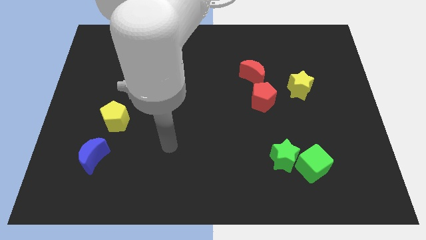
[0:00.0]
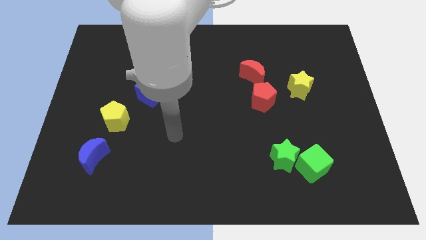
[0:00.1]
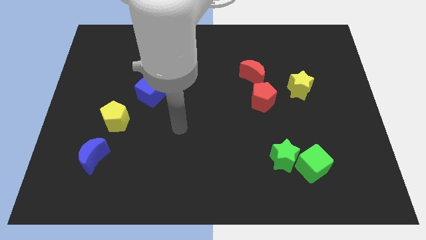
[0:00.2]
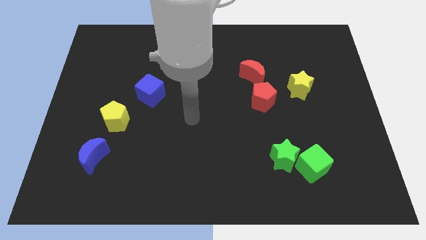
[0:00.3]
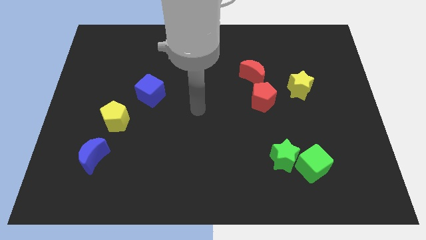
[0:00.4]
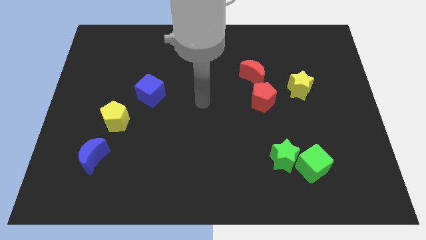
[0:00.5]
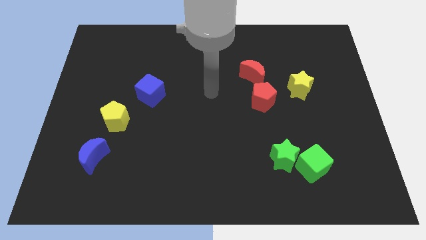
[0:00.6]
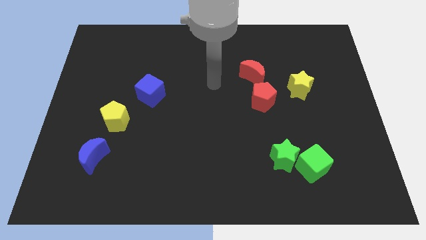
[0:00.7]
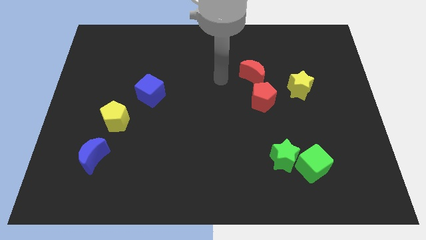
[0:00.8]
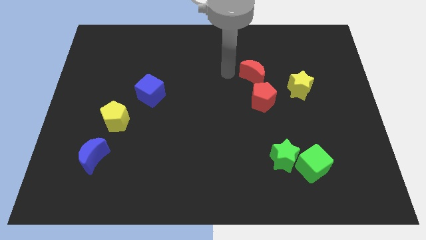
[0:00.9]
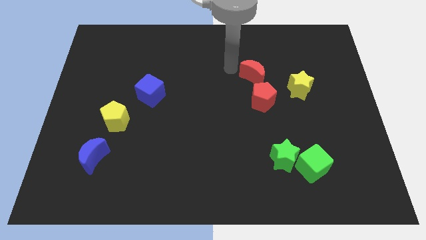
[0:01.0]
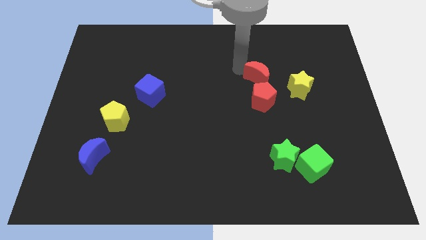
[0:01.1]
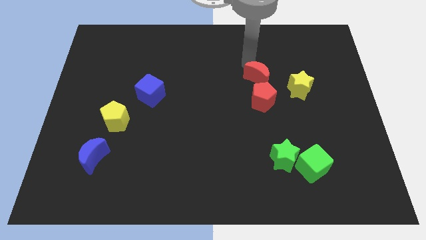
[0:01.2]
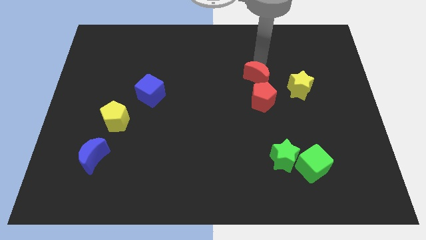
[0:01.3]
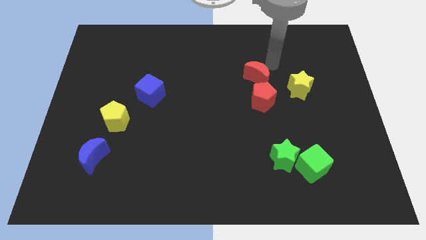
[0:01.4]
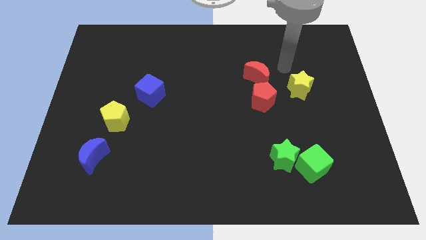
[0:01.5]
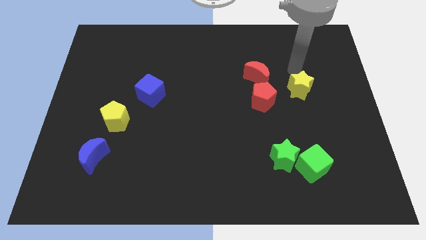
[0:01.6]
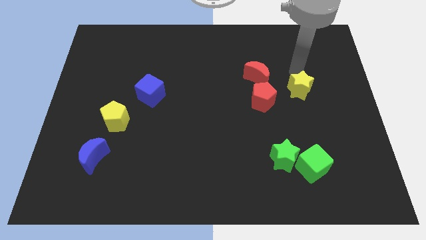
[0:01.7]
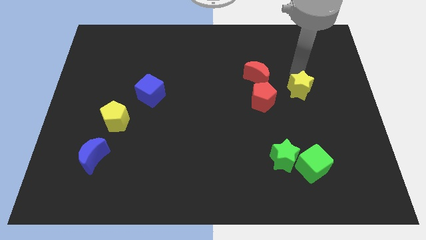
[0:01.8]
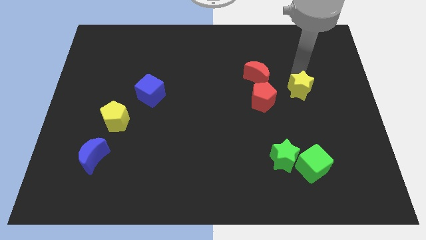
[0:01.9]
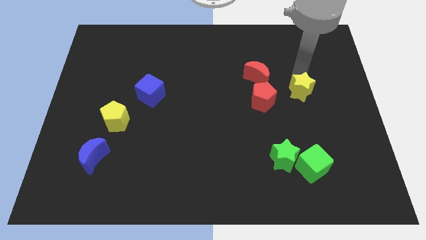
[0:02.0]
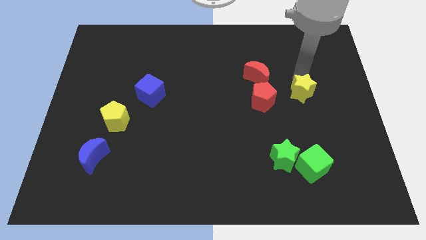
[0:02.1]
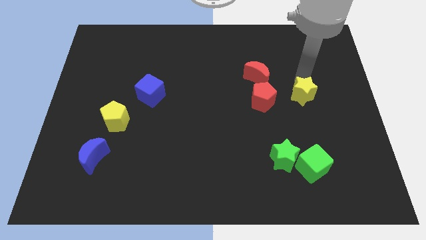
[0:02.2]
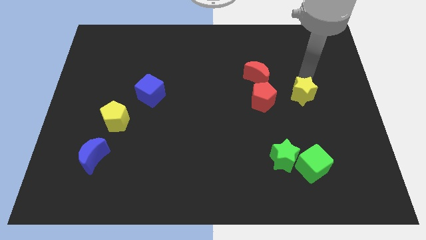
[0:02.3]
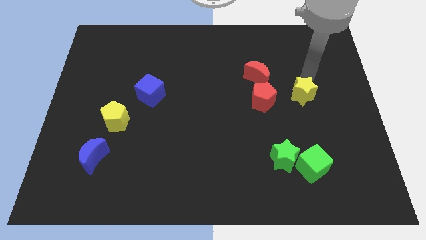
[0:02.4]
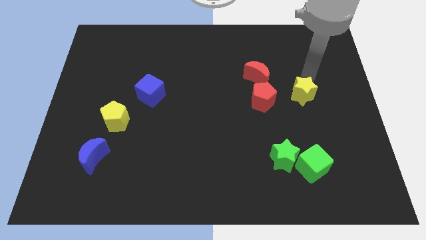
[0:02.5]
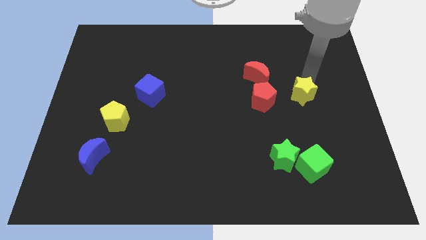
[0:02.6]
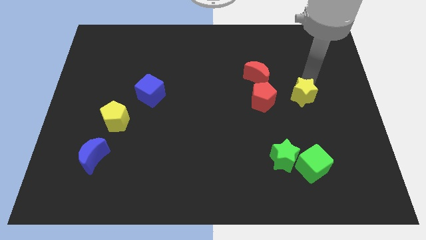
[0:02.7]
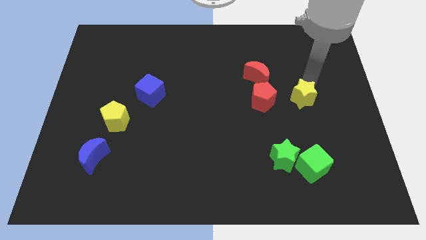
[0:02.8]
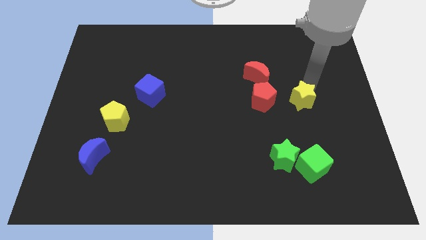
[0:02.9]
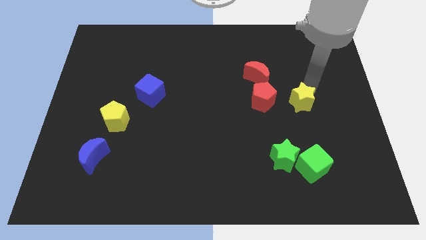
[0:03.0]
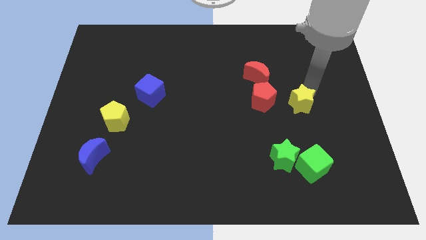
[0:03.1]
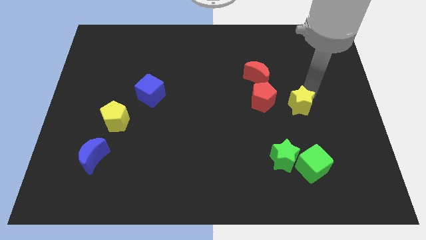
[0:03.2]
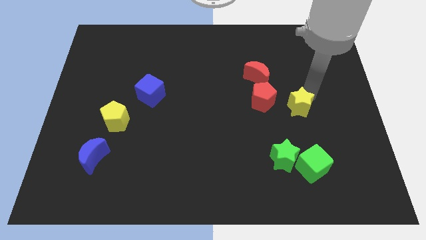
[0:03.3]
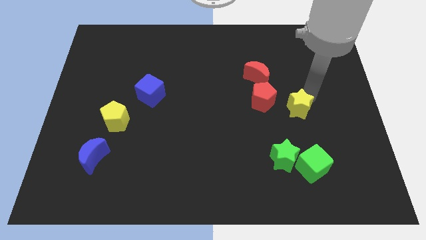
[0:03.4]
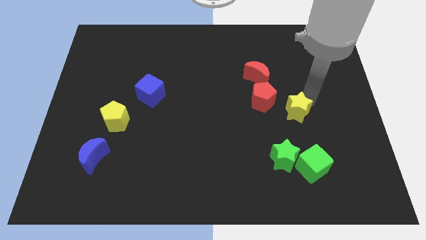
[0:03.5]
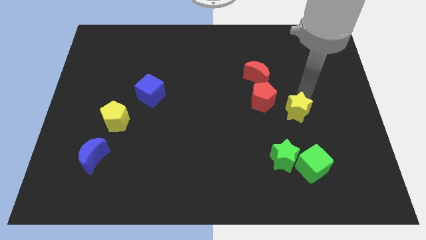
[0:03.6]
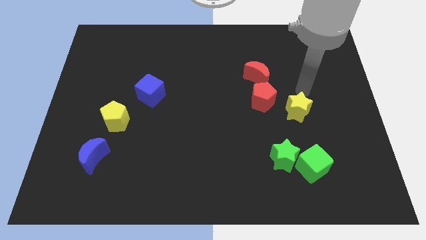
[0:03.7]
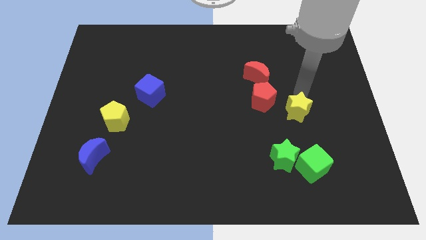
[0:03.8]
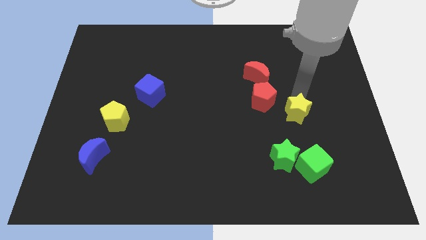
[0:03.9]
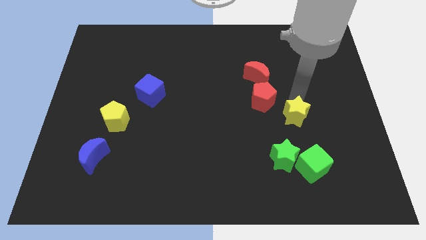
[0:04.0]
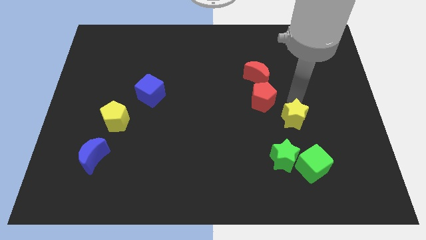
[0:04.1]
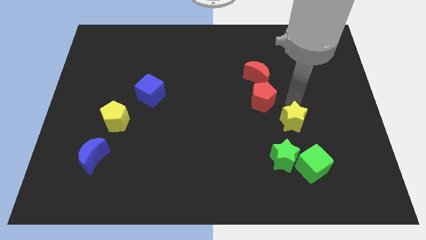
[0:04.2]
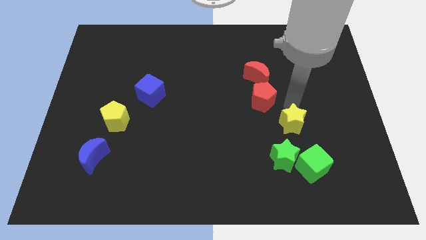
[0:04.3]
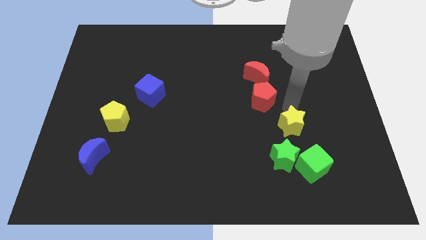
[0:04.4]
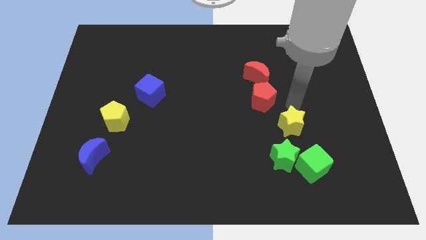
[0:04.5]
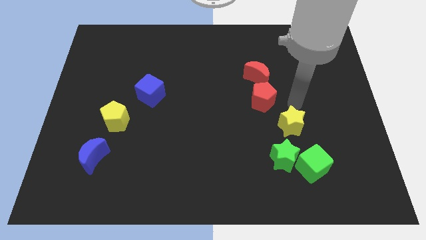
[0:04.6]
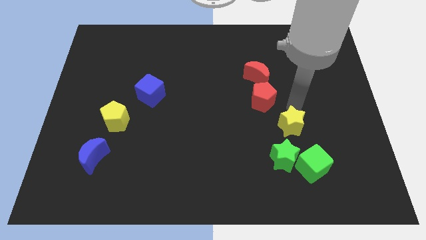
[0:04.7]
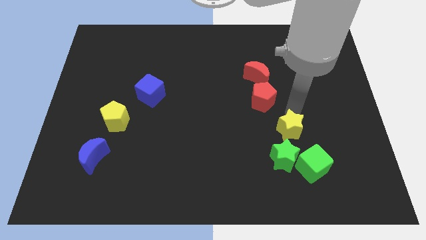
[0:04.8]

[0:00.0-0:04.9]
put the yellow star to the top left side of the green cube

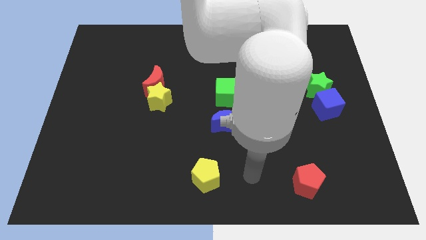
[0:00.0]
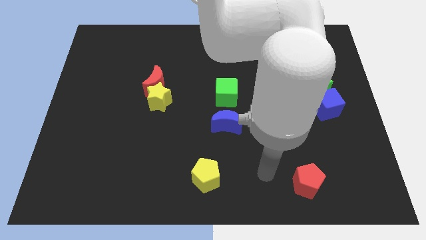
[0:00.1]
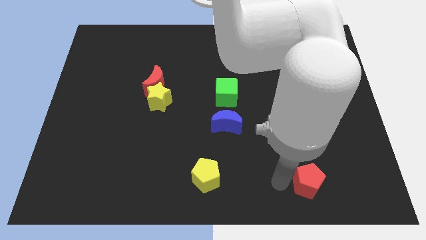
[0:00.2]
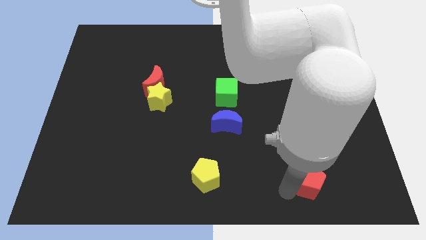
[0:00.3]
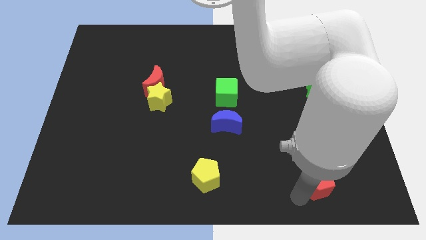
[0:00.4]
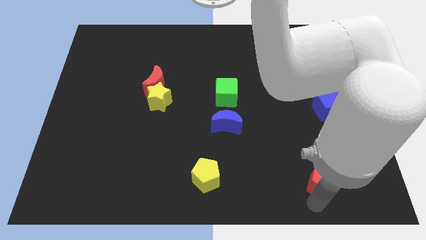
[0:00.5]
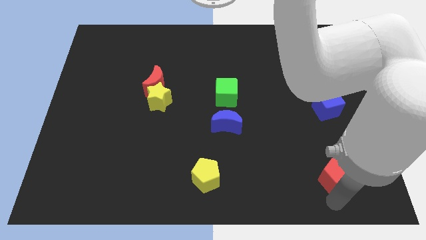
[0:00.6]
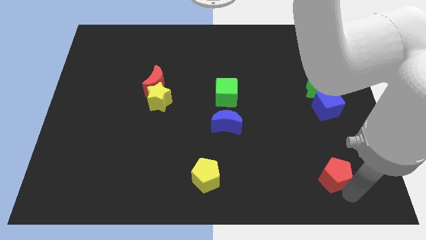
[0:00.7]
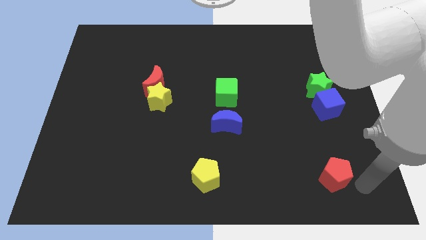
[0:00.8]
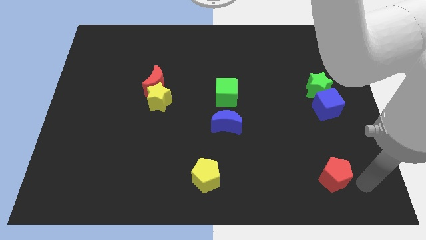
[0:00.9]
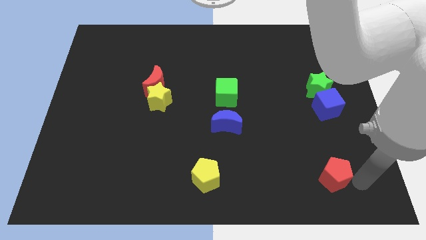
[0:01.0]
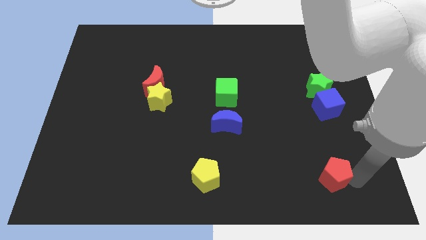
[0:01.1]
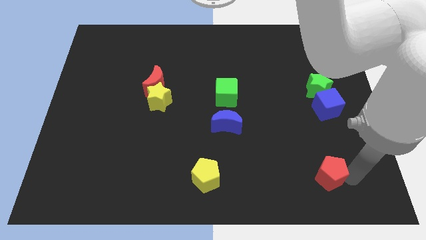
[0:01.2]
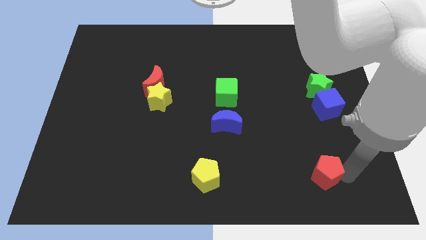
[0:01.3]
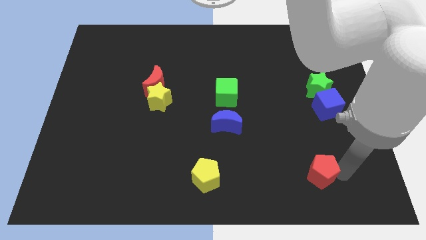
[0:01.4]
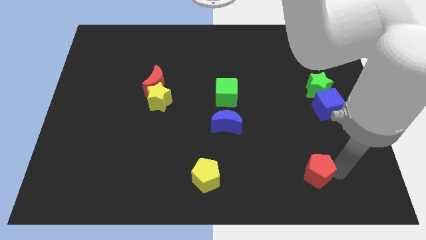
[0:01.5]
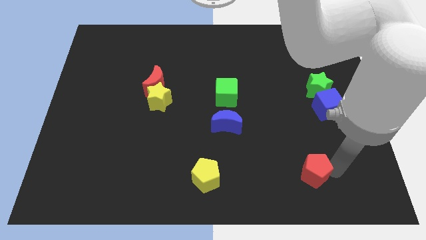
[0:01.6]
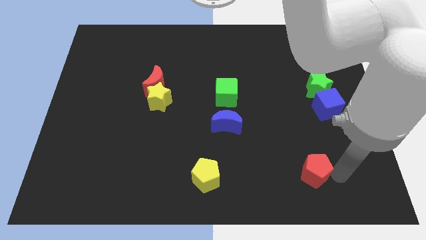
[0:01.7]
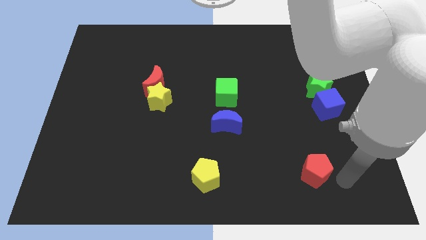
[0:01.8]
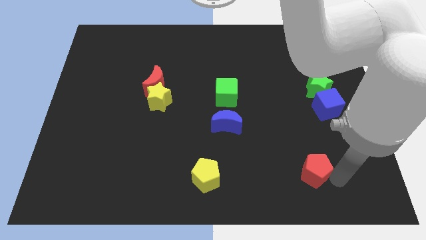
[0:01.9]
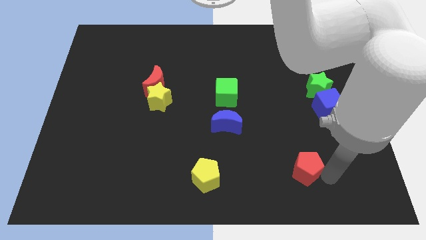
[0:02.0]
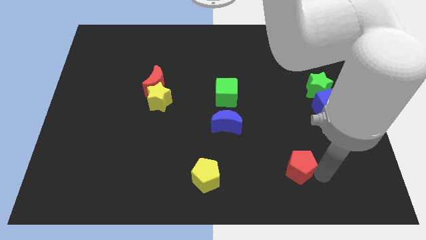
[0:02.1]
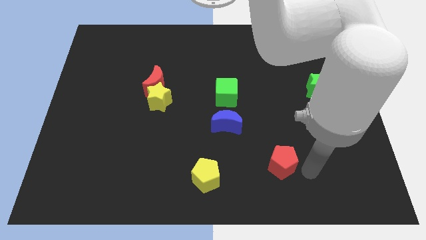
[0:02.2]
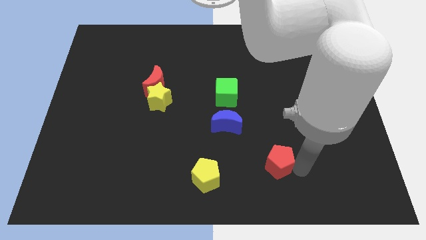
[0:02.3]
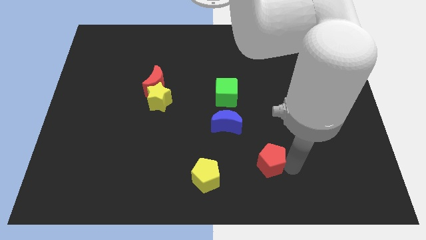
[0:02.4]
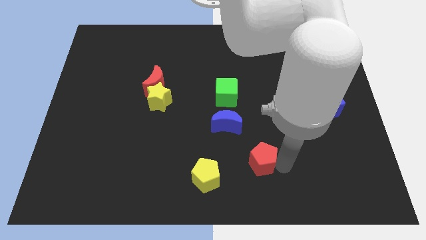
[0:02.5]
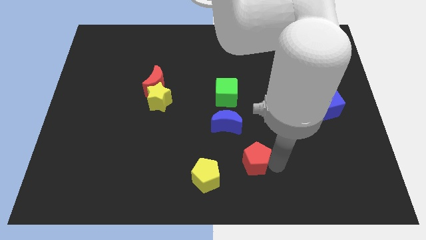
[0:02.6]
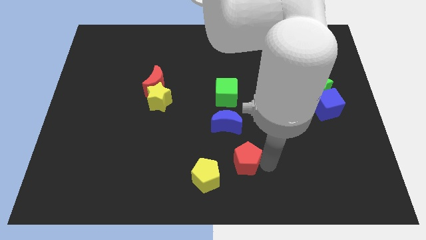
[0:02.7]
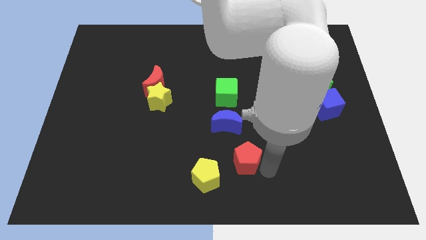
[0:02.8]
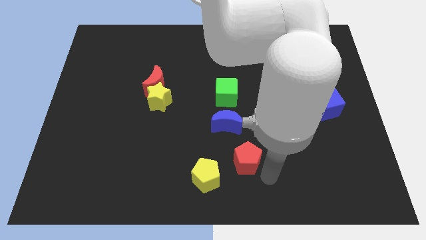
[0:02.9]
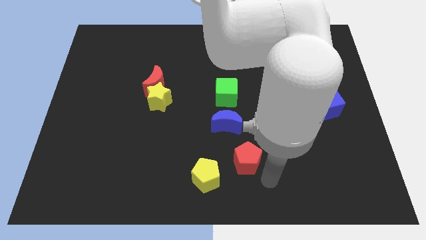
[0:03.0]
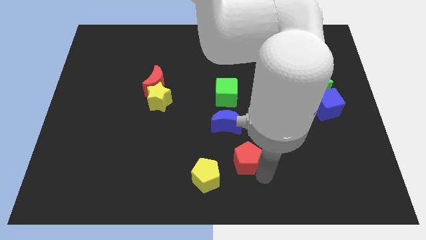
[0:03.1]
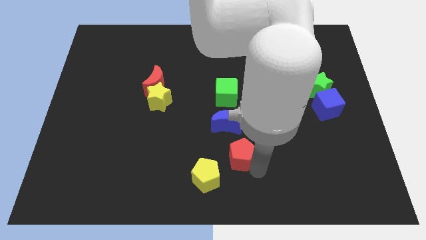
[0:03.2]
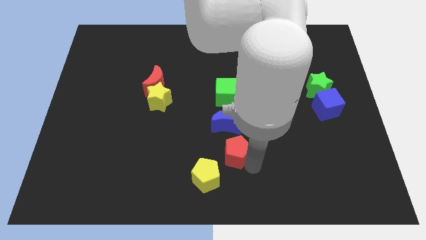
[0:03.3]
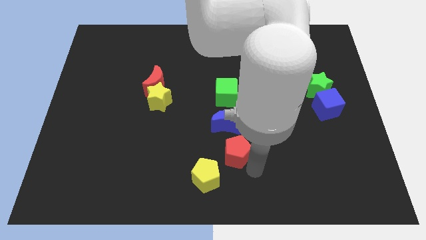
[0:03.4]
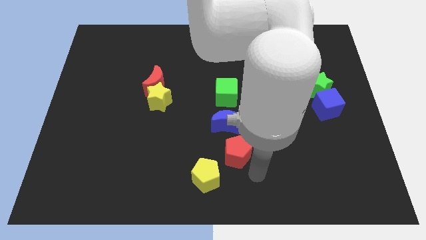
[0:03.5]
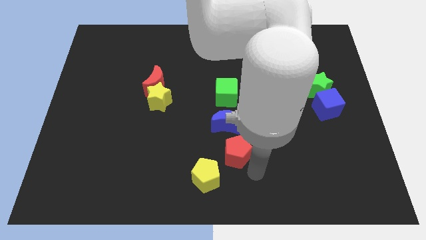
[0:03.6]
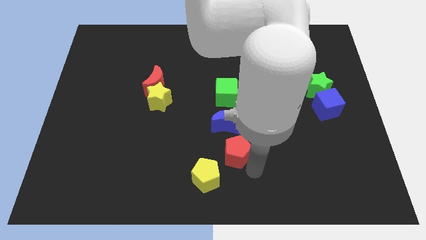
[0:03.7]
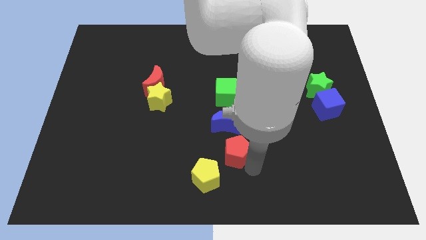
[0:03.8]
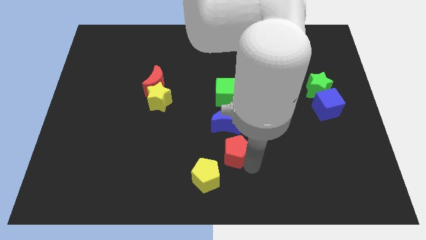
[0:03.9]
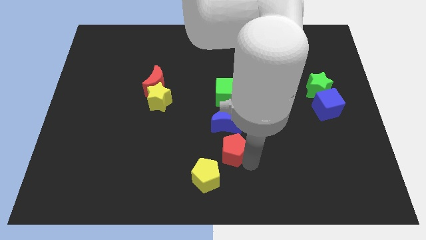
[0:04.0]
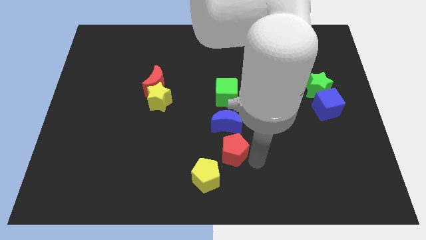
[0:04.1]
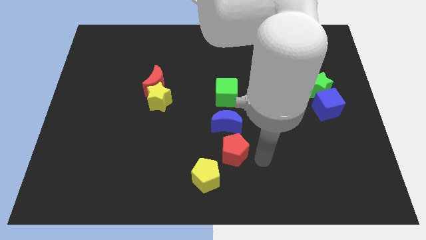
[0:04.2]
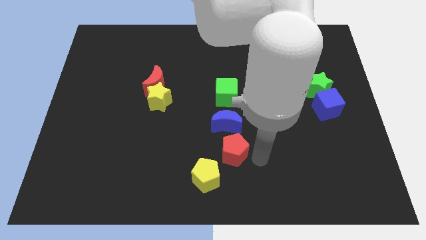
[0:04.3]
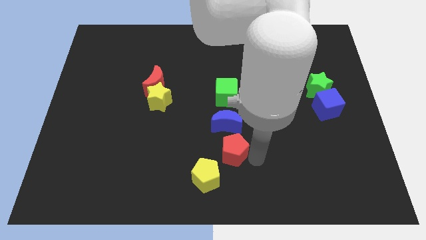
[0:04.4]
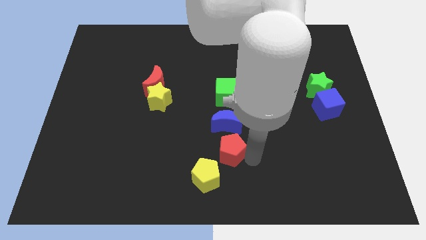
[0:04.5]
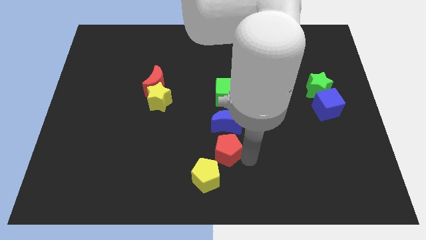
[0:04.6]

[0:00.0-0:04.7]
move the red pentagon to the bottom left side of the blue moon
